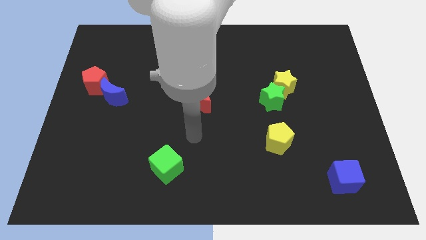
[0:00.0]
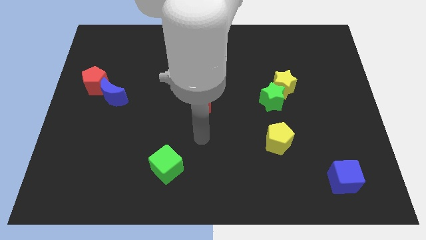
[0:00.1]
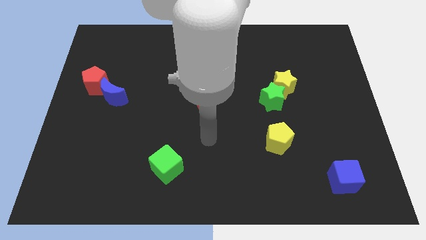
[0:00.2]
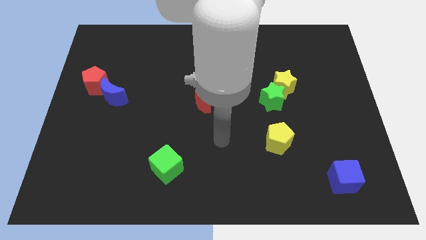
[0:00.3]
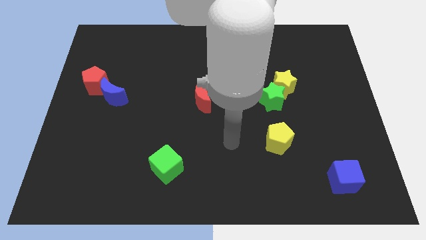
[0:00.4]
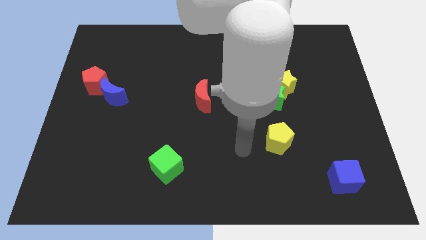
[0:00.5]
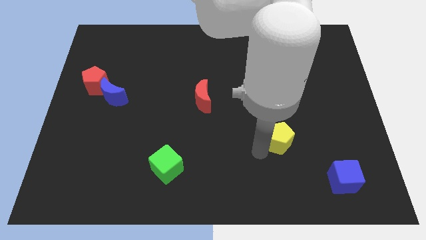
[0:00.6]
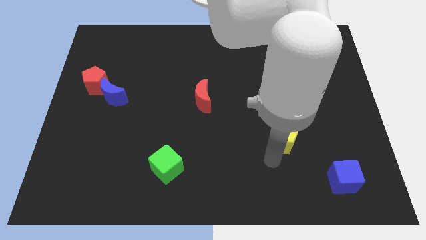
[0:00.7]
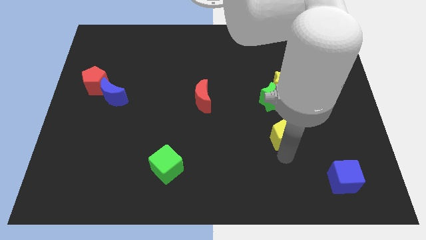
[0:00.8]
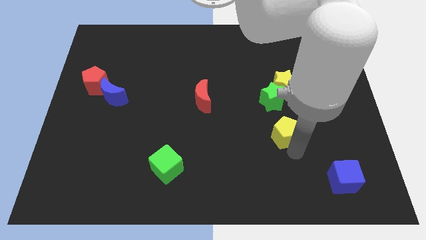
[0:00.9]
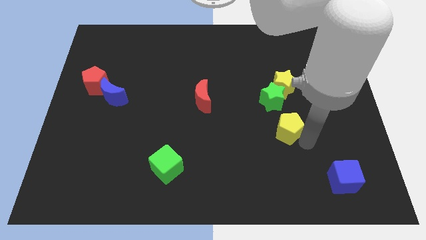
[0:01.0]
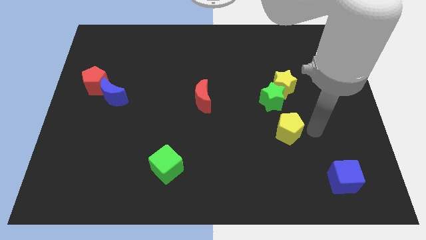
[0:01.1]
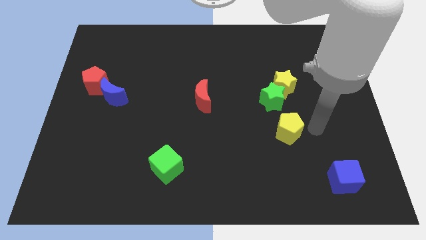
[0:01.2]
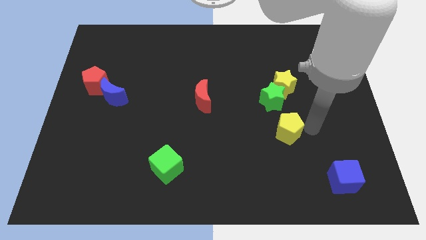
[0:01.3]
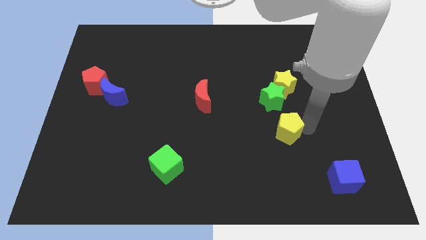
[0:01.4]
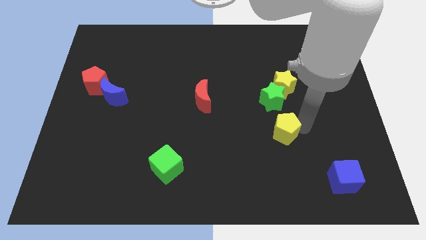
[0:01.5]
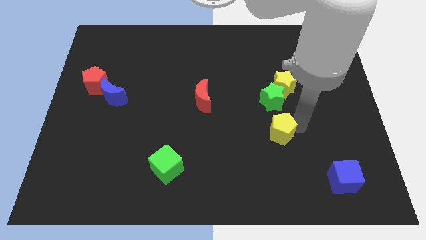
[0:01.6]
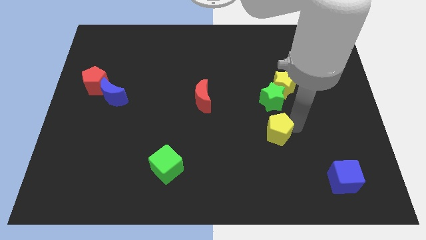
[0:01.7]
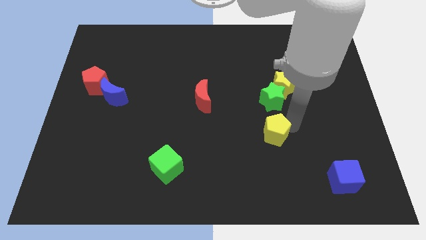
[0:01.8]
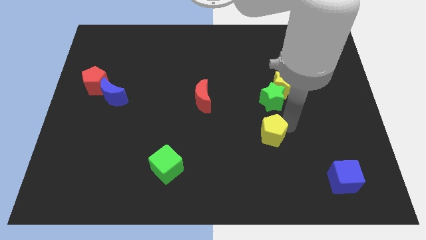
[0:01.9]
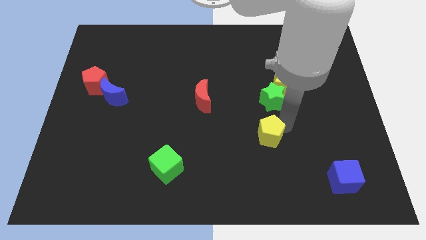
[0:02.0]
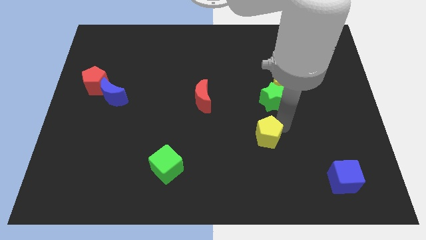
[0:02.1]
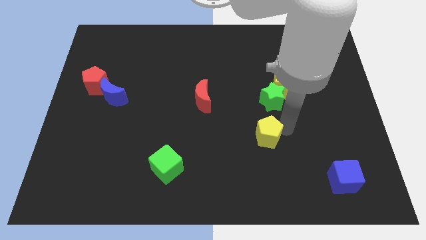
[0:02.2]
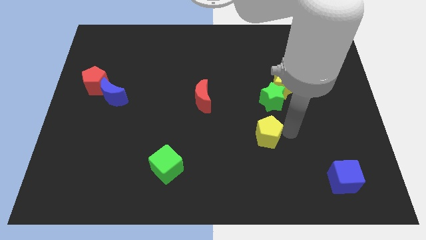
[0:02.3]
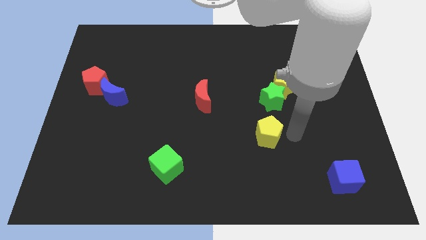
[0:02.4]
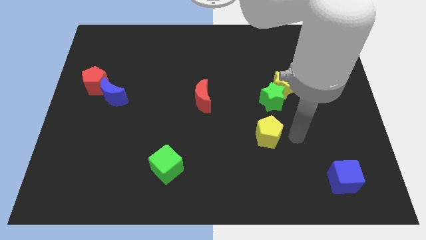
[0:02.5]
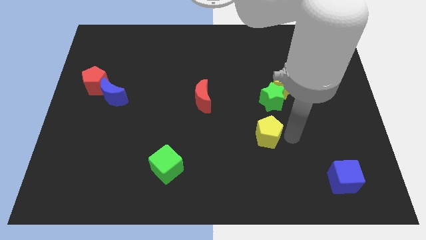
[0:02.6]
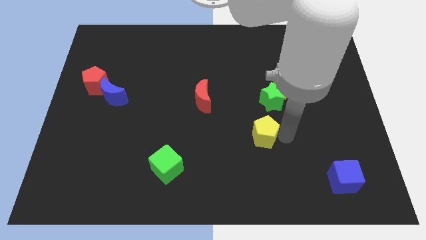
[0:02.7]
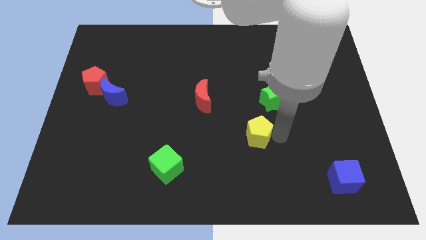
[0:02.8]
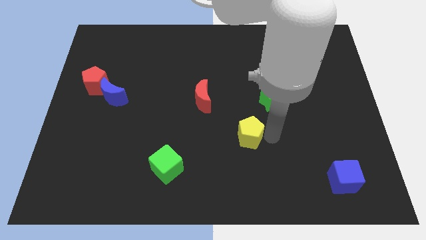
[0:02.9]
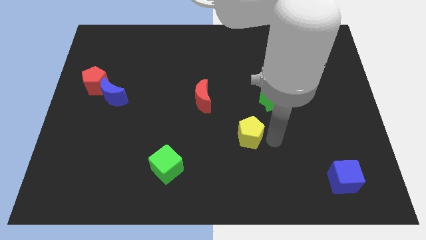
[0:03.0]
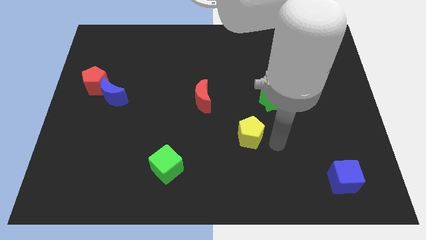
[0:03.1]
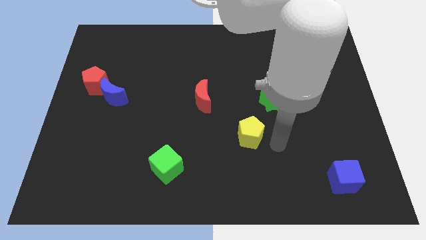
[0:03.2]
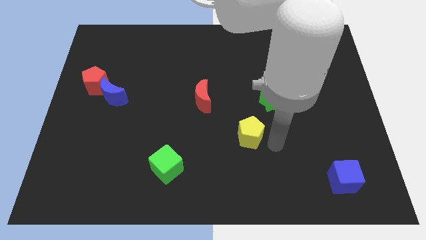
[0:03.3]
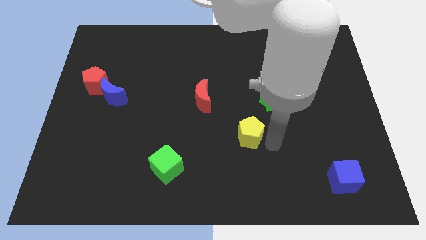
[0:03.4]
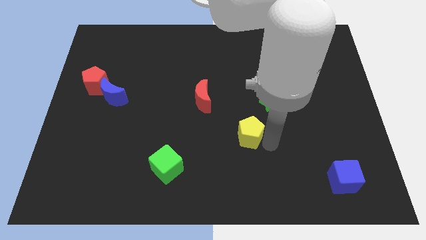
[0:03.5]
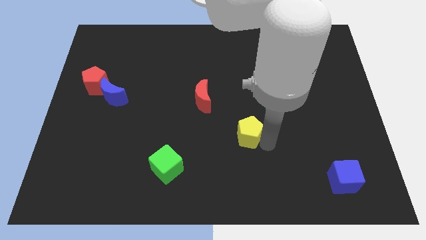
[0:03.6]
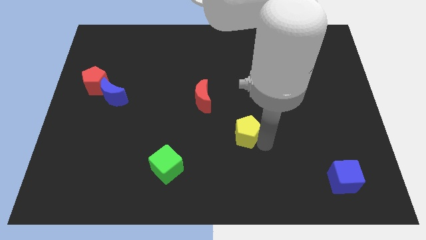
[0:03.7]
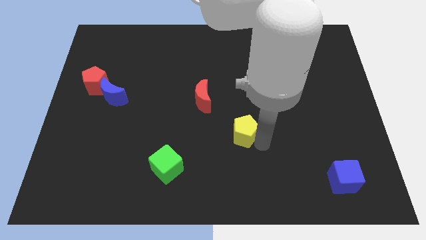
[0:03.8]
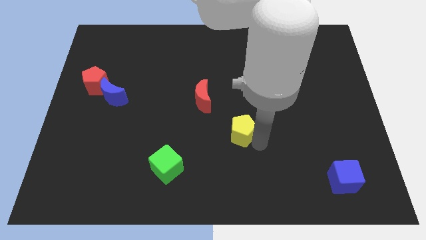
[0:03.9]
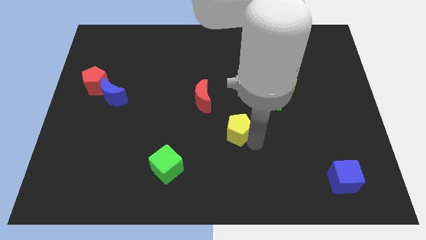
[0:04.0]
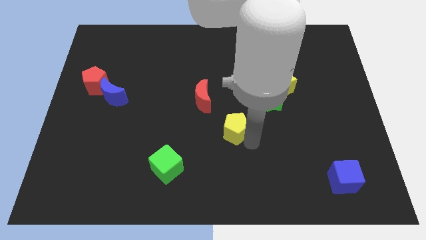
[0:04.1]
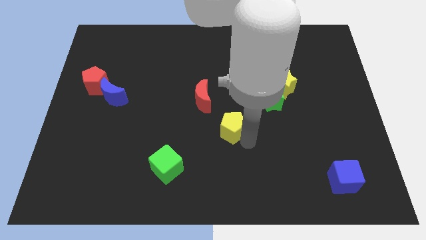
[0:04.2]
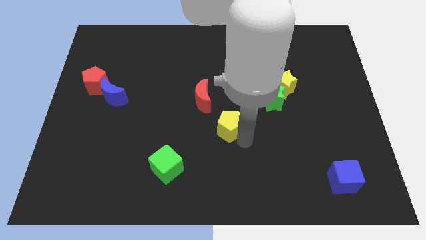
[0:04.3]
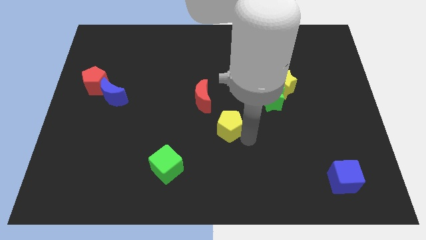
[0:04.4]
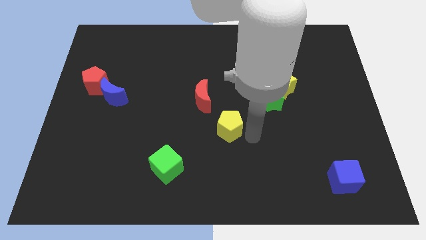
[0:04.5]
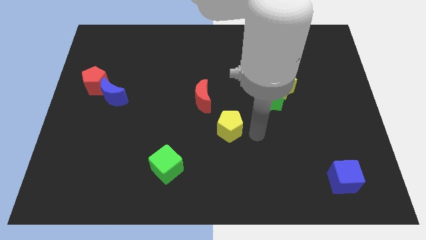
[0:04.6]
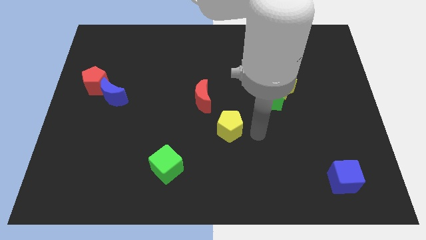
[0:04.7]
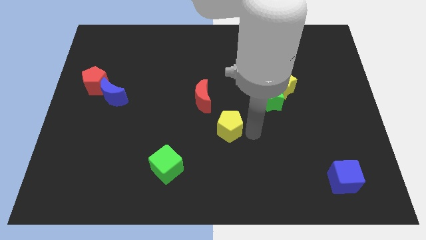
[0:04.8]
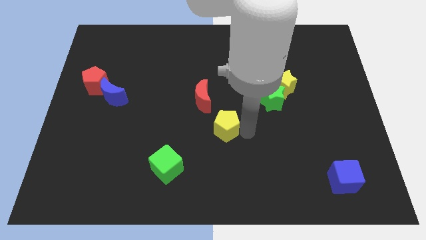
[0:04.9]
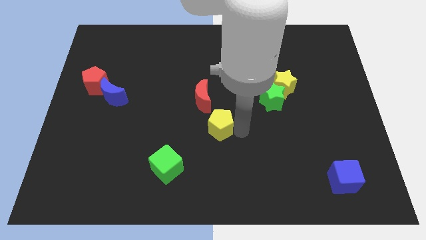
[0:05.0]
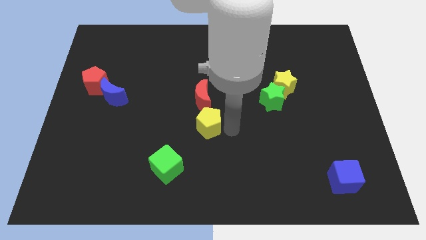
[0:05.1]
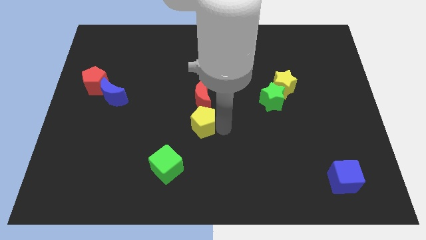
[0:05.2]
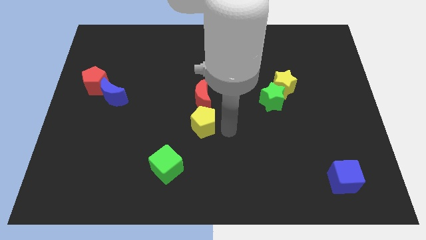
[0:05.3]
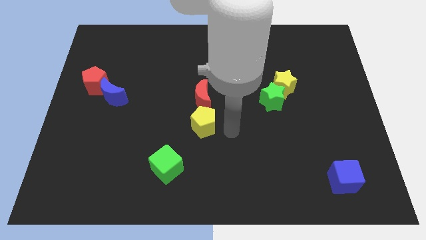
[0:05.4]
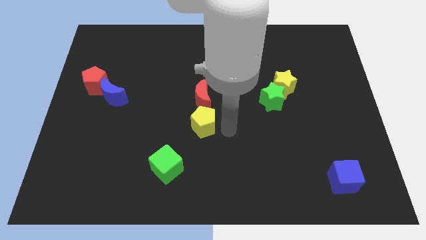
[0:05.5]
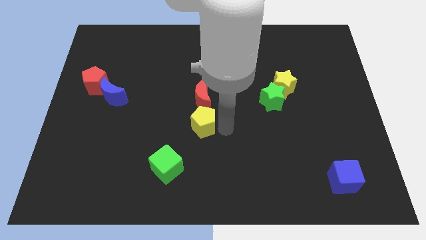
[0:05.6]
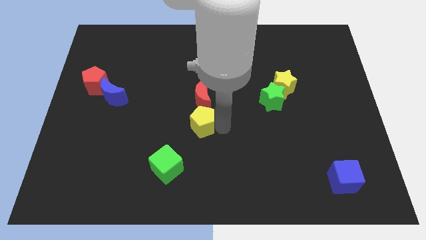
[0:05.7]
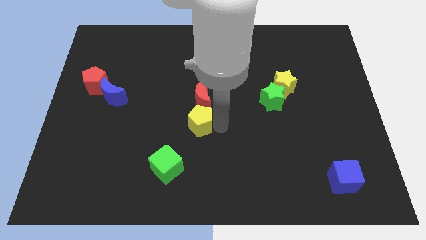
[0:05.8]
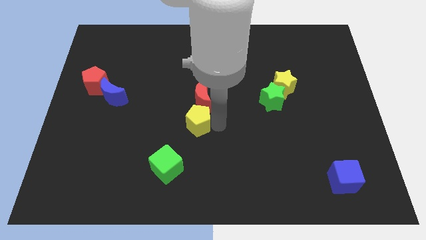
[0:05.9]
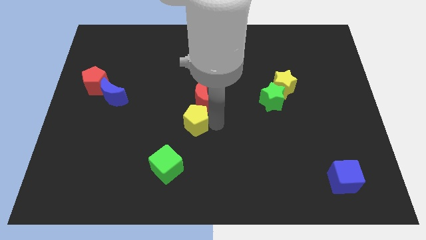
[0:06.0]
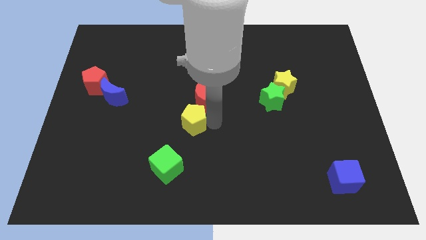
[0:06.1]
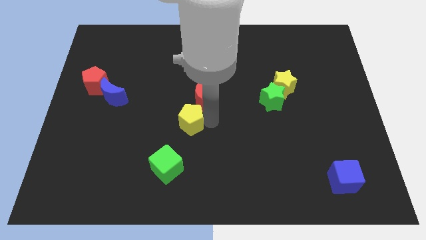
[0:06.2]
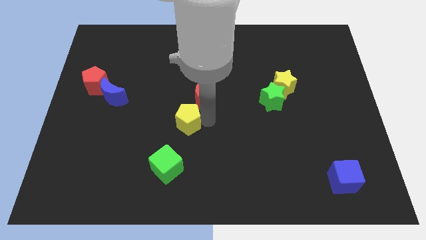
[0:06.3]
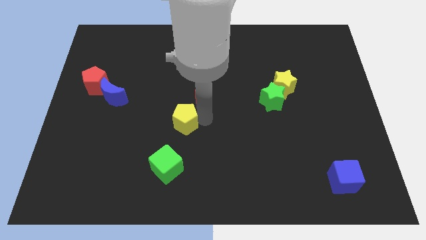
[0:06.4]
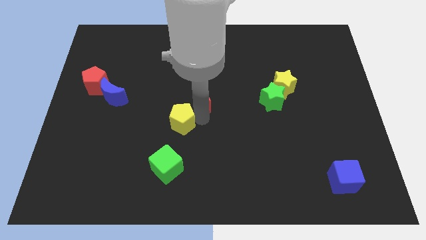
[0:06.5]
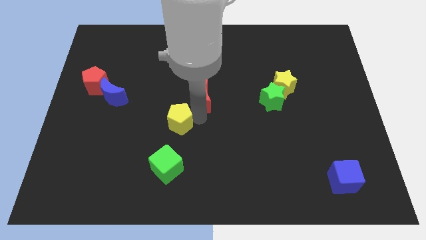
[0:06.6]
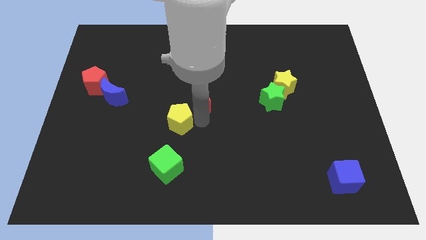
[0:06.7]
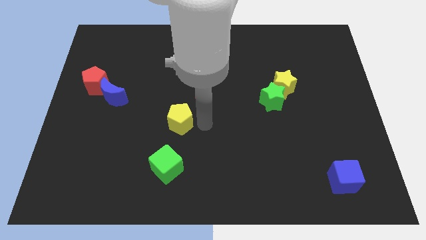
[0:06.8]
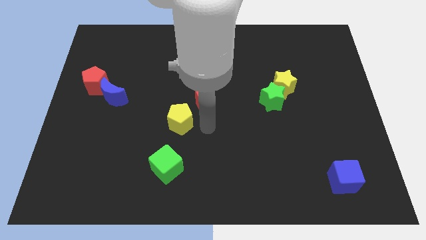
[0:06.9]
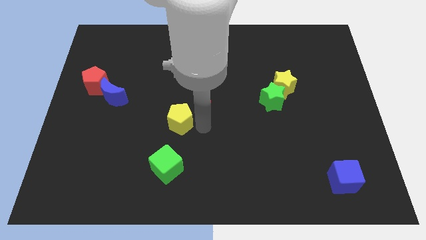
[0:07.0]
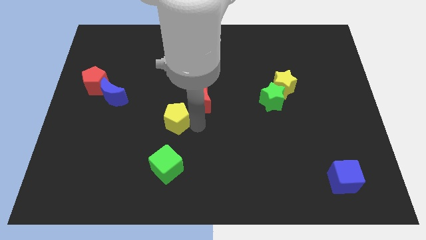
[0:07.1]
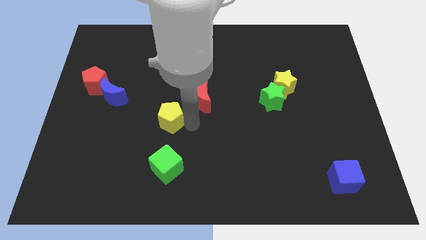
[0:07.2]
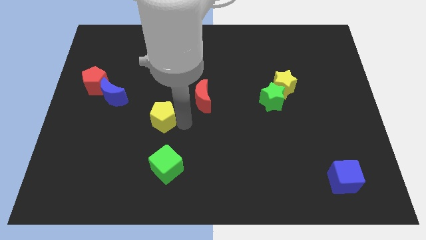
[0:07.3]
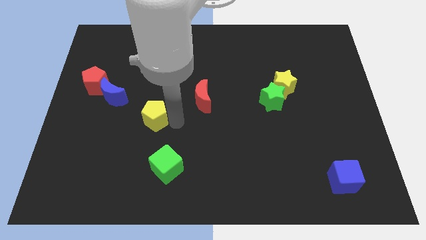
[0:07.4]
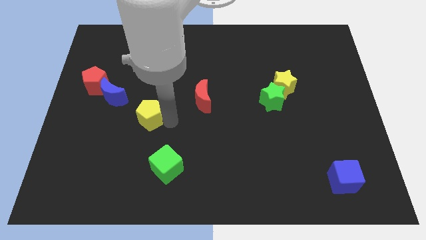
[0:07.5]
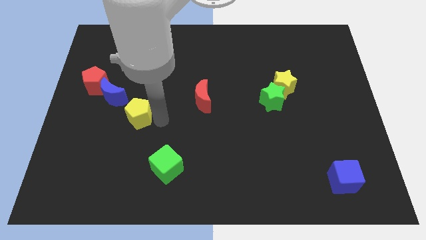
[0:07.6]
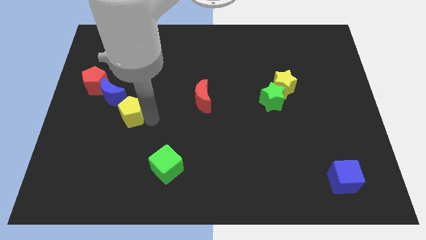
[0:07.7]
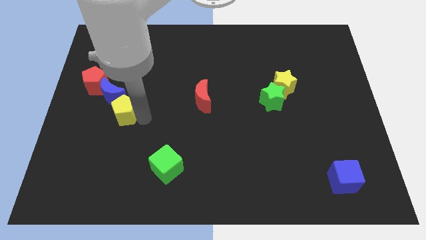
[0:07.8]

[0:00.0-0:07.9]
put the yellow pentagon diagonally down and to the right of the red pentagon
